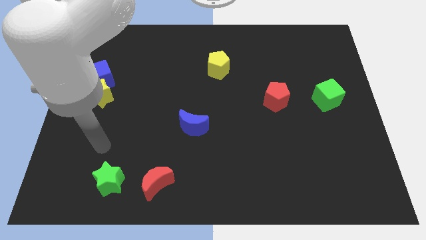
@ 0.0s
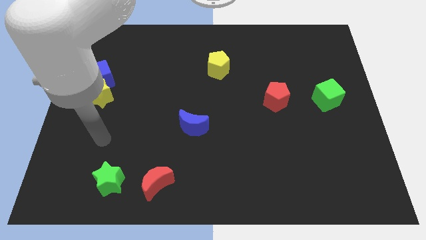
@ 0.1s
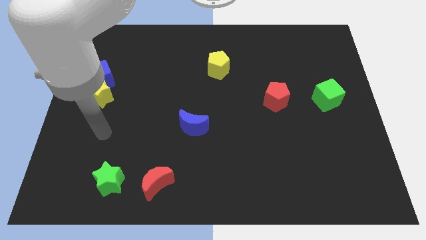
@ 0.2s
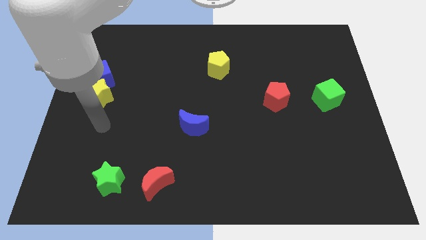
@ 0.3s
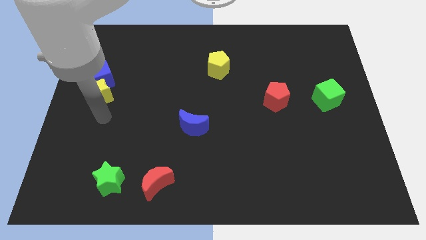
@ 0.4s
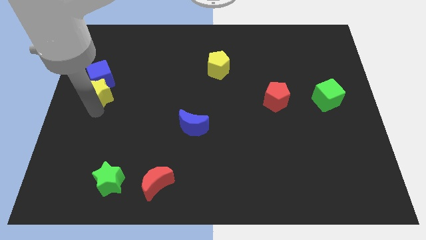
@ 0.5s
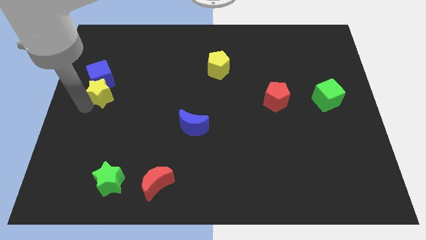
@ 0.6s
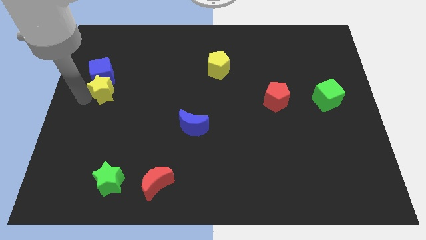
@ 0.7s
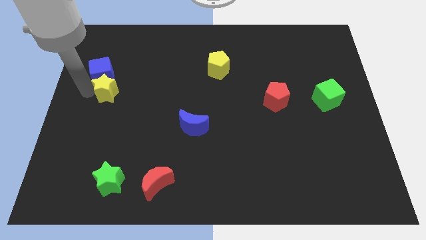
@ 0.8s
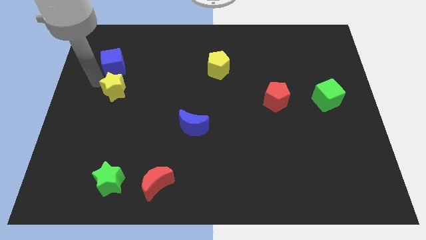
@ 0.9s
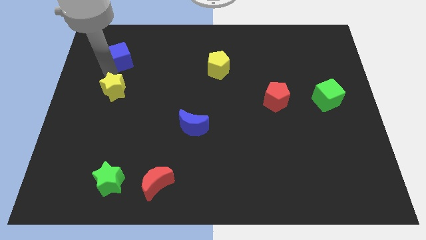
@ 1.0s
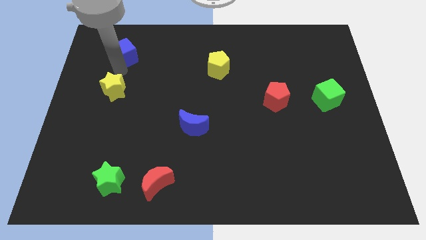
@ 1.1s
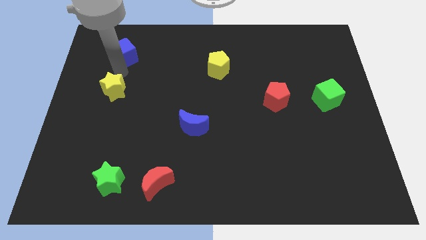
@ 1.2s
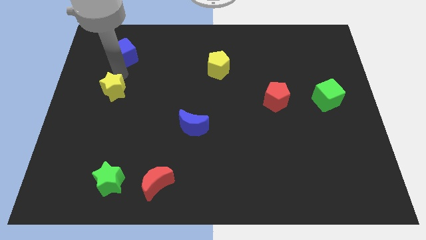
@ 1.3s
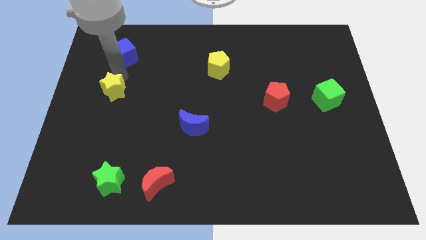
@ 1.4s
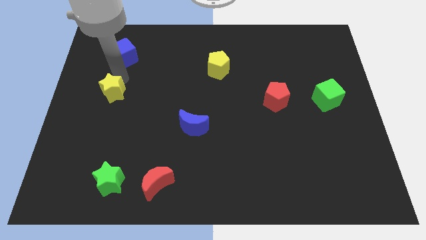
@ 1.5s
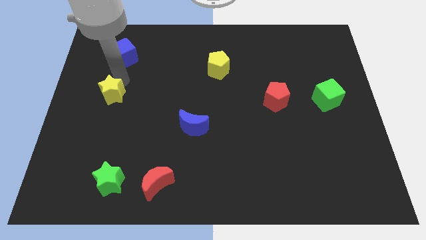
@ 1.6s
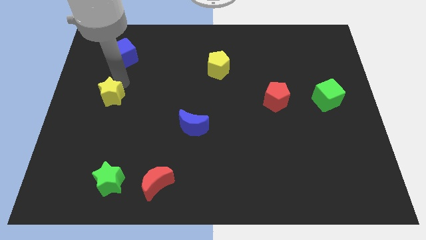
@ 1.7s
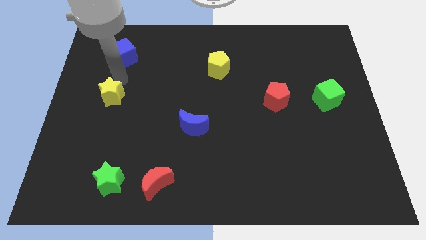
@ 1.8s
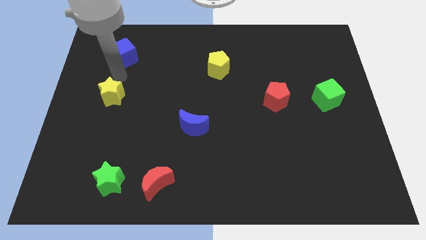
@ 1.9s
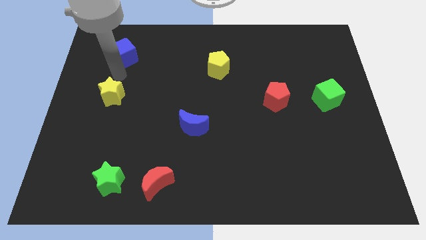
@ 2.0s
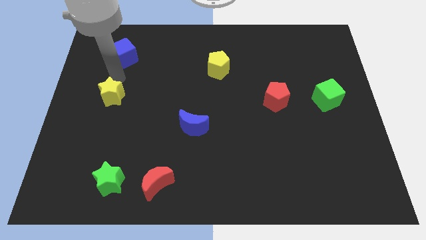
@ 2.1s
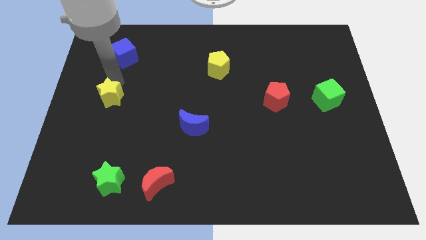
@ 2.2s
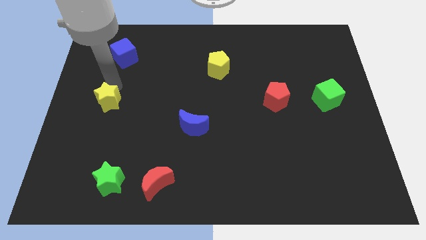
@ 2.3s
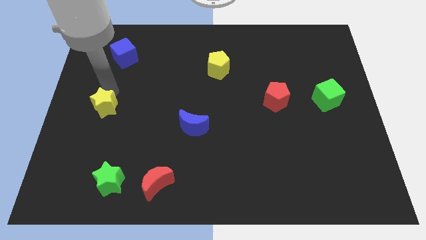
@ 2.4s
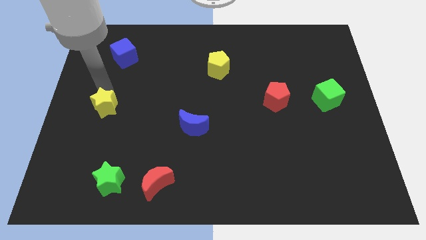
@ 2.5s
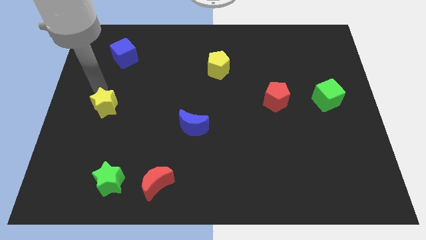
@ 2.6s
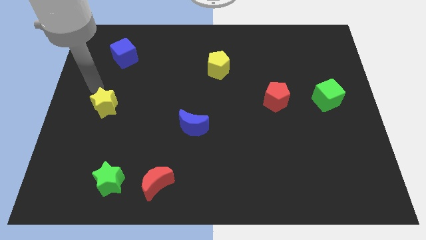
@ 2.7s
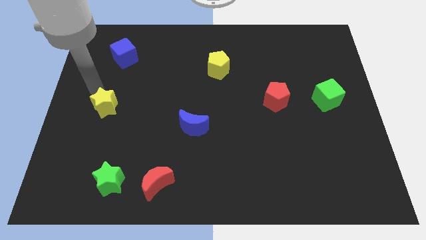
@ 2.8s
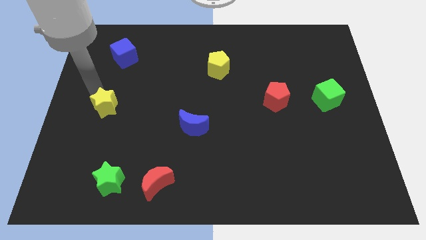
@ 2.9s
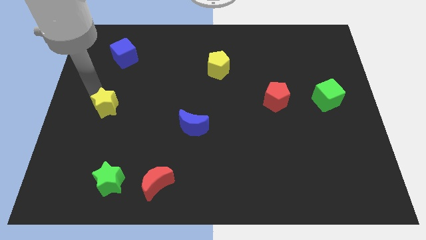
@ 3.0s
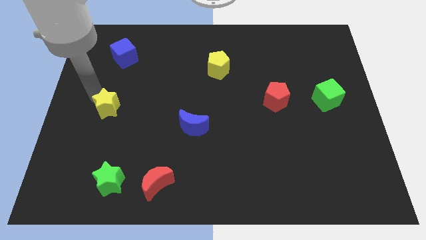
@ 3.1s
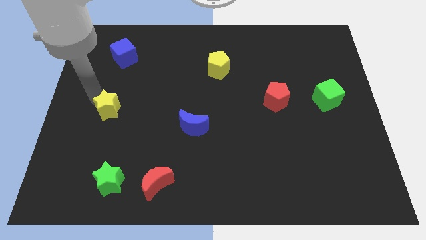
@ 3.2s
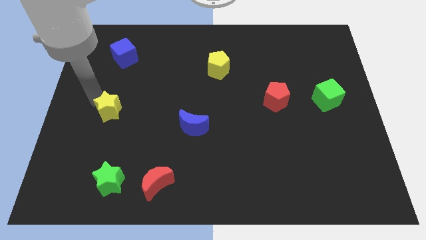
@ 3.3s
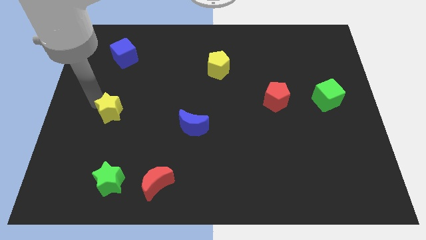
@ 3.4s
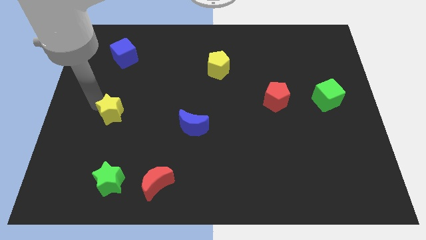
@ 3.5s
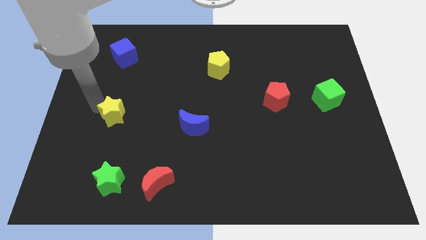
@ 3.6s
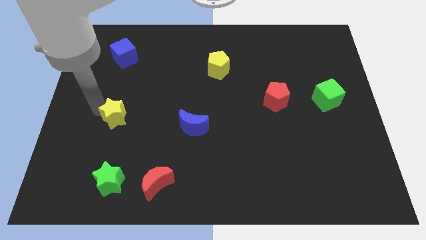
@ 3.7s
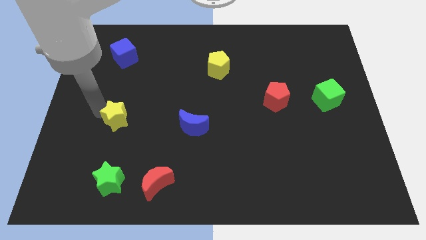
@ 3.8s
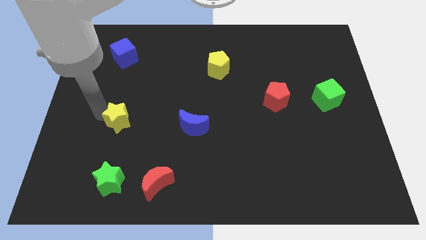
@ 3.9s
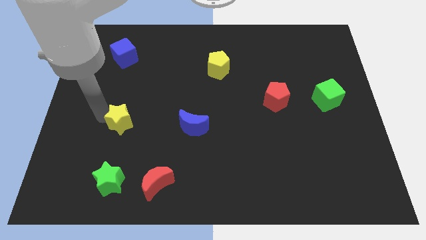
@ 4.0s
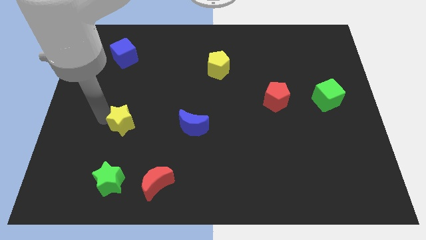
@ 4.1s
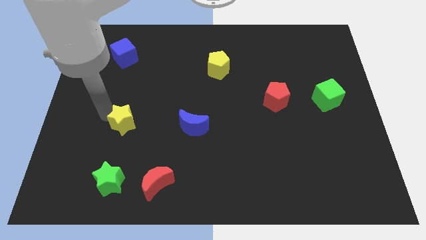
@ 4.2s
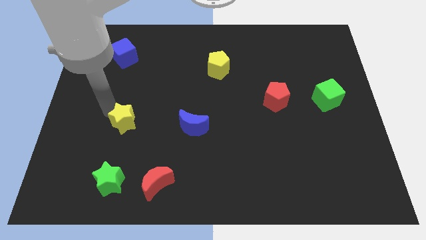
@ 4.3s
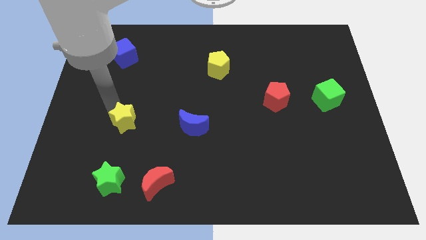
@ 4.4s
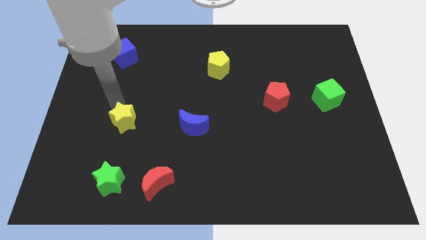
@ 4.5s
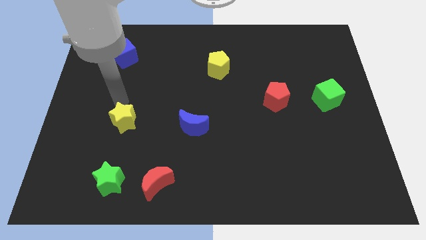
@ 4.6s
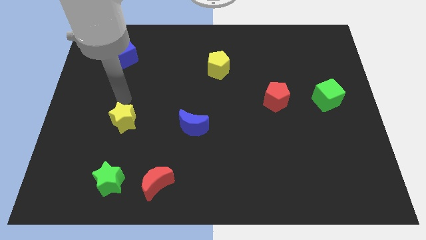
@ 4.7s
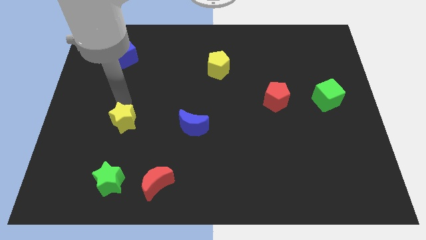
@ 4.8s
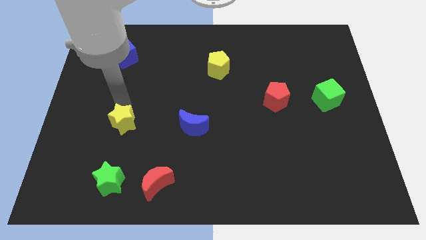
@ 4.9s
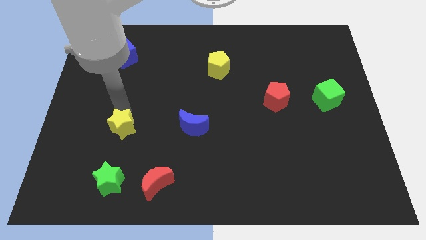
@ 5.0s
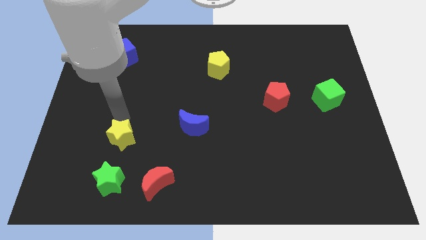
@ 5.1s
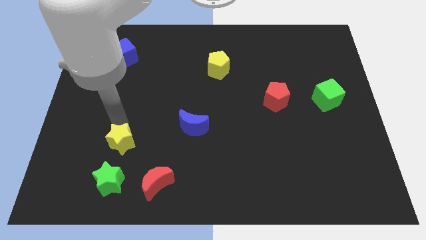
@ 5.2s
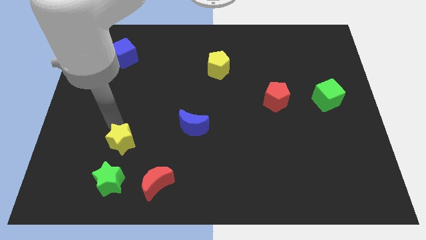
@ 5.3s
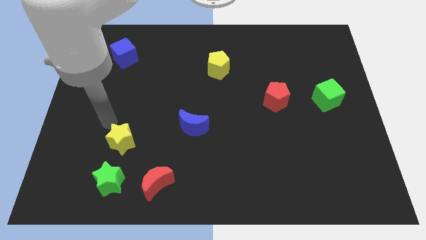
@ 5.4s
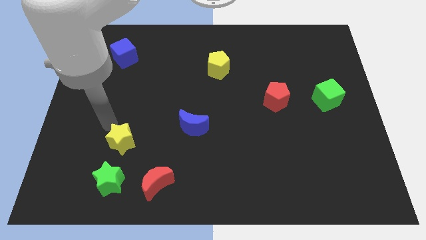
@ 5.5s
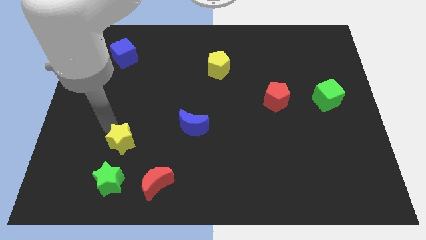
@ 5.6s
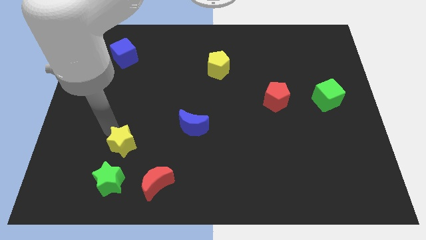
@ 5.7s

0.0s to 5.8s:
put the yellow star diagonally up and to the left of the red moon

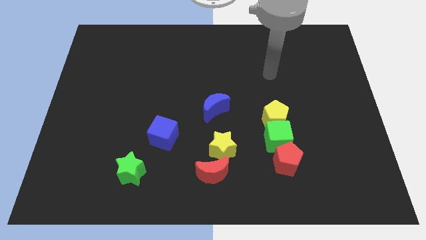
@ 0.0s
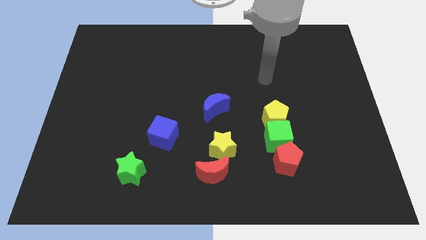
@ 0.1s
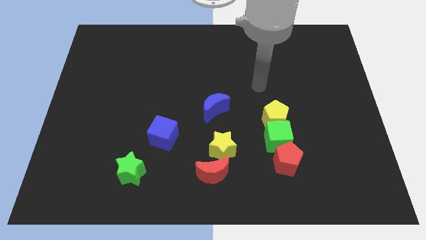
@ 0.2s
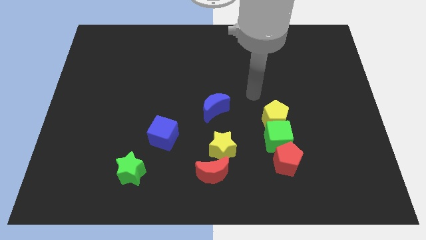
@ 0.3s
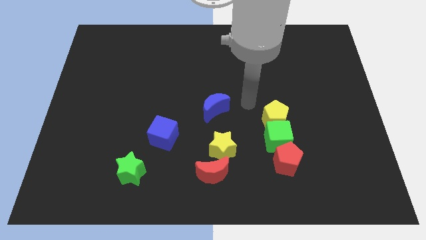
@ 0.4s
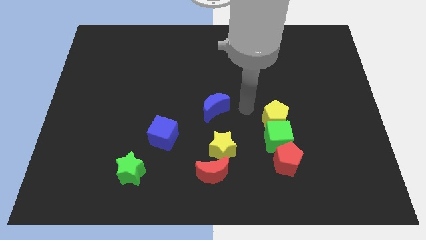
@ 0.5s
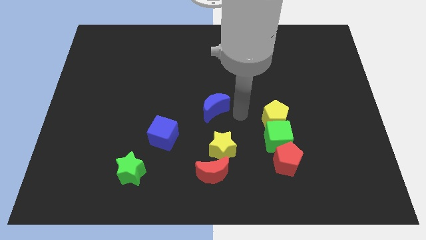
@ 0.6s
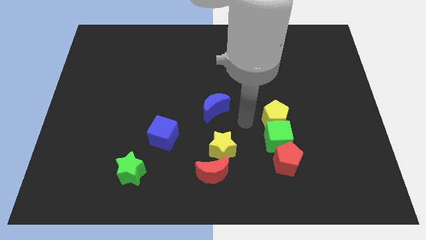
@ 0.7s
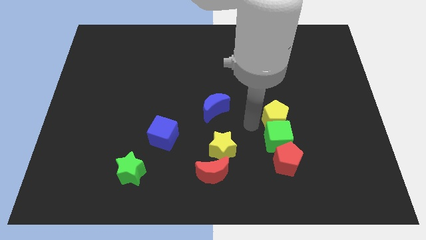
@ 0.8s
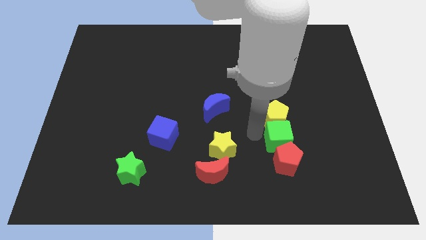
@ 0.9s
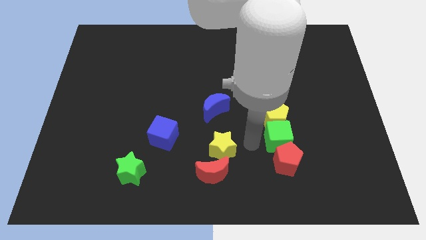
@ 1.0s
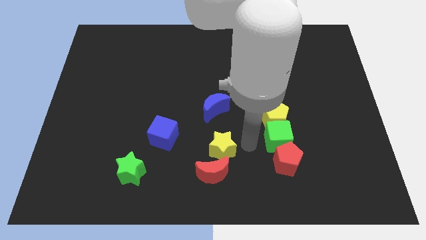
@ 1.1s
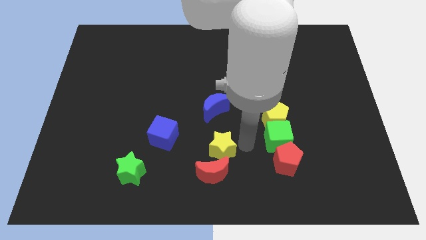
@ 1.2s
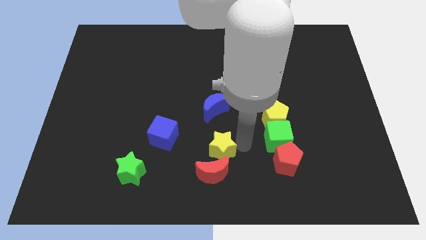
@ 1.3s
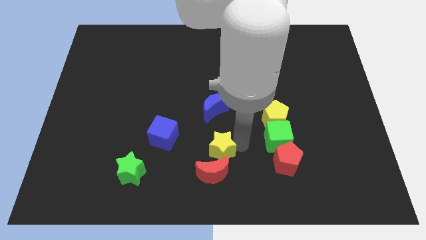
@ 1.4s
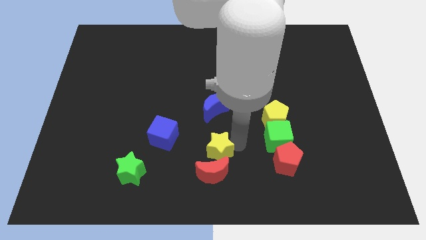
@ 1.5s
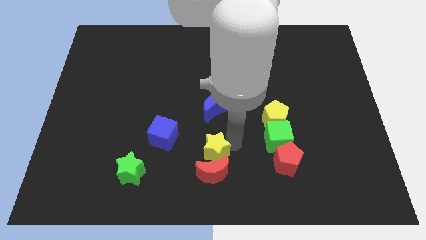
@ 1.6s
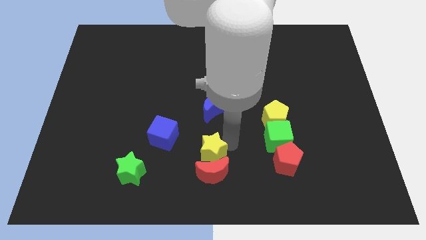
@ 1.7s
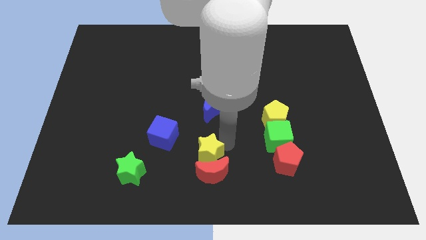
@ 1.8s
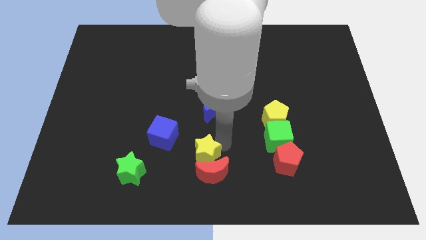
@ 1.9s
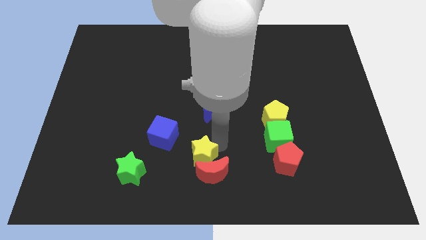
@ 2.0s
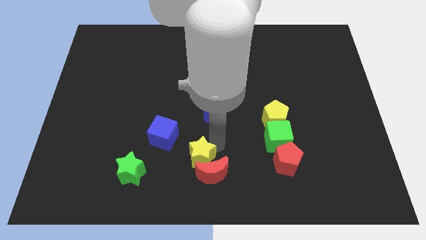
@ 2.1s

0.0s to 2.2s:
put the yellow star to the left side of the red moon
